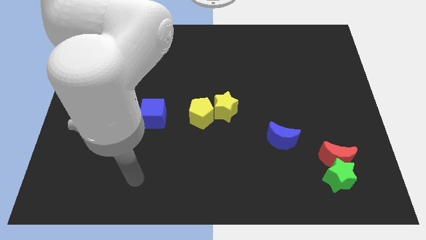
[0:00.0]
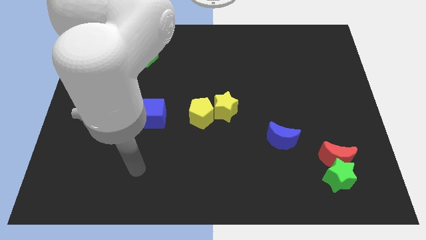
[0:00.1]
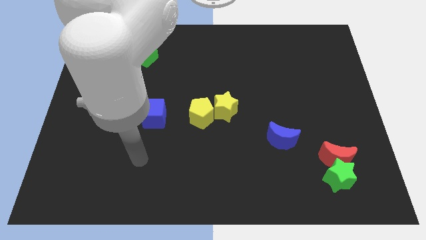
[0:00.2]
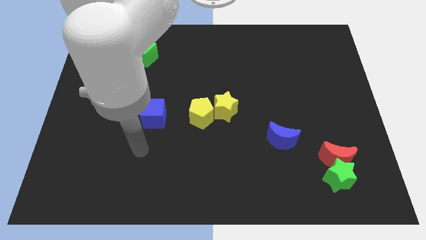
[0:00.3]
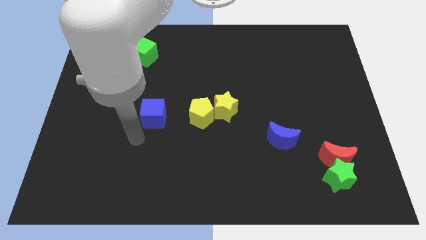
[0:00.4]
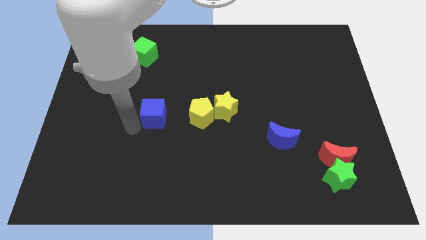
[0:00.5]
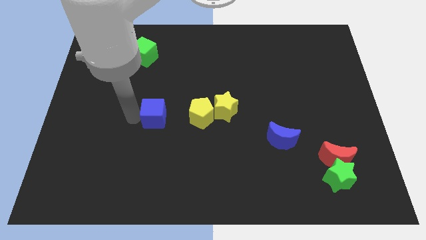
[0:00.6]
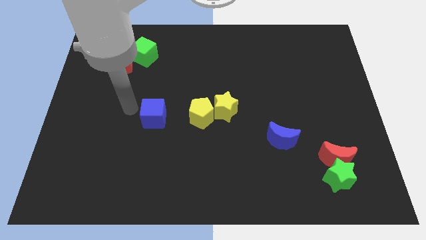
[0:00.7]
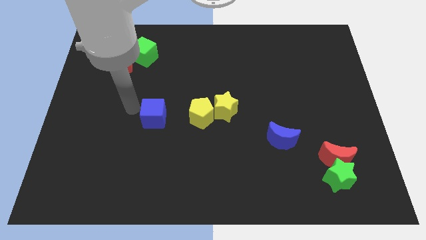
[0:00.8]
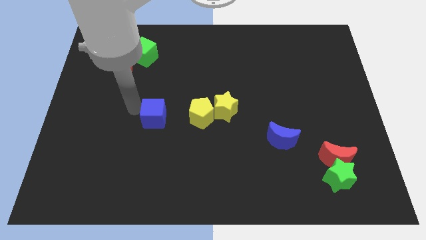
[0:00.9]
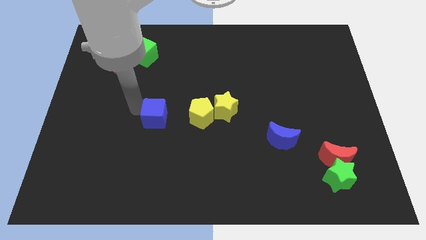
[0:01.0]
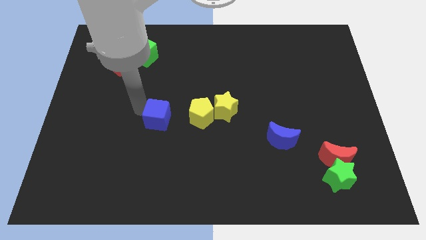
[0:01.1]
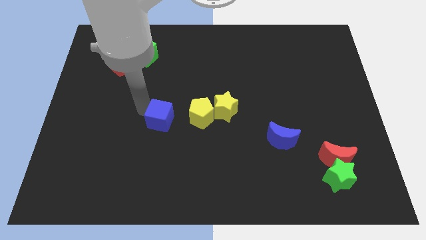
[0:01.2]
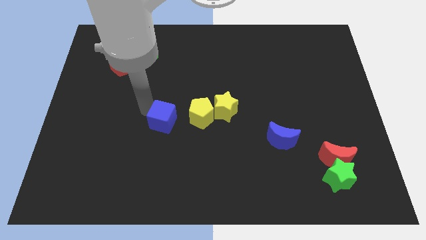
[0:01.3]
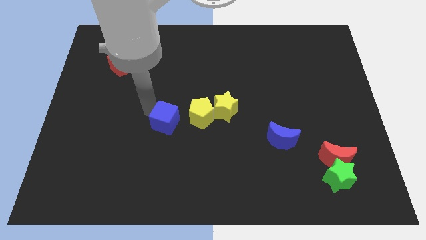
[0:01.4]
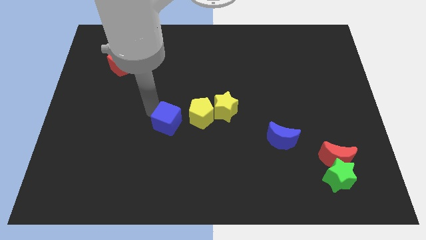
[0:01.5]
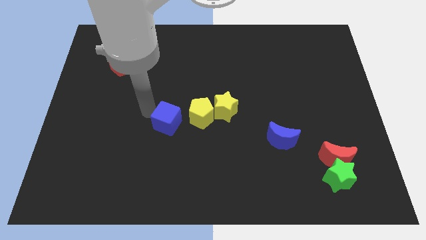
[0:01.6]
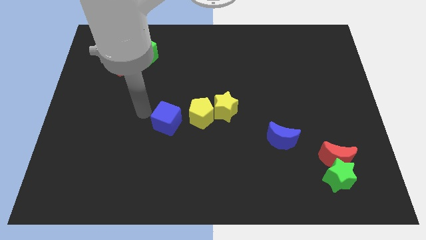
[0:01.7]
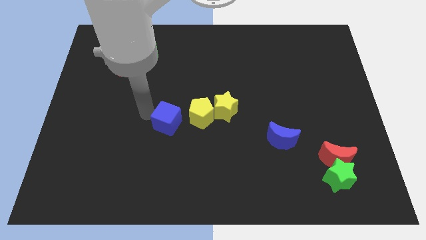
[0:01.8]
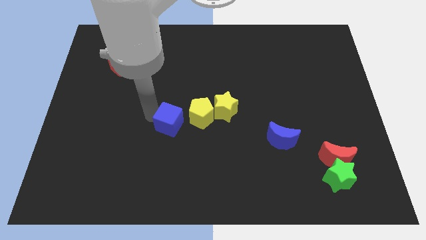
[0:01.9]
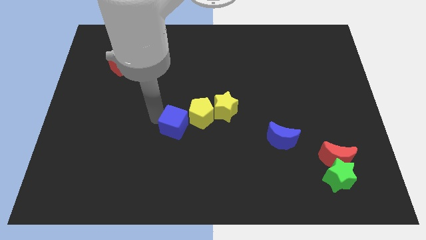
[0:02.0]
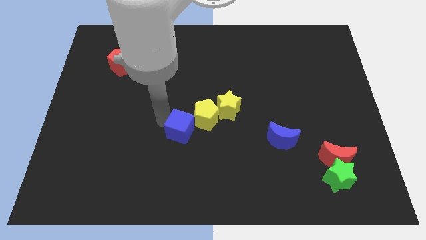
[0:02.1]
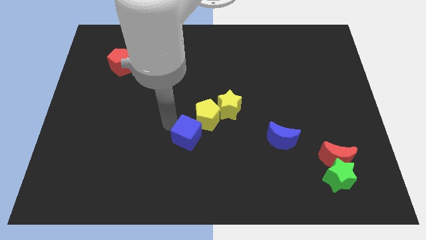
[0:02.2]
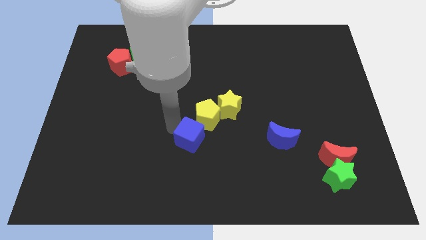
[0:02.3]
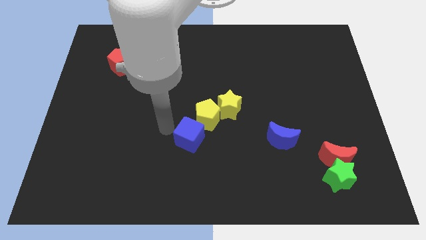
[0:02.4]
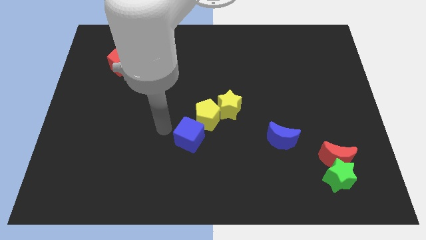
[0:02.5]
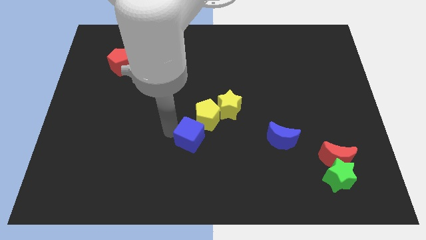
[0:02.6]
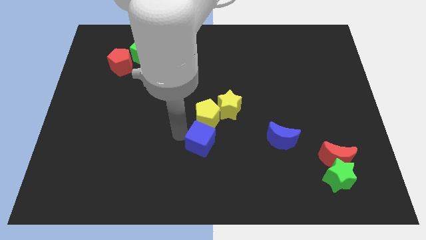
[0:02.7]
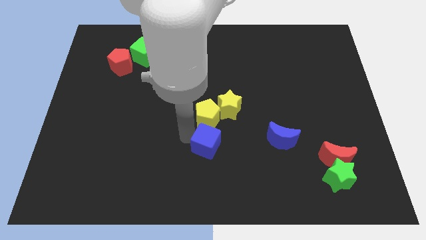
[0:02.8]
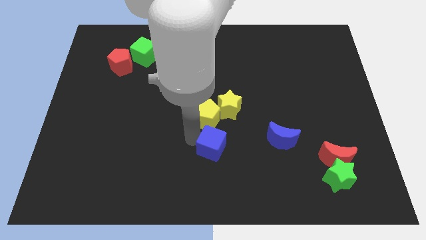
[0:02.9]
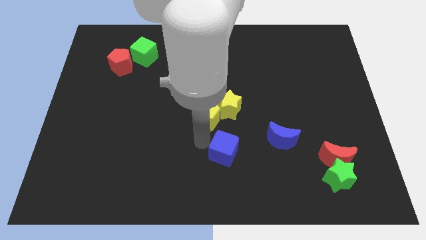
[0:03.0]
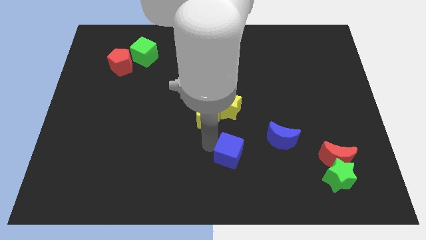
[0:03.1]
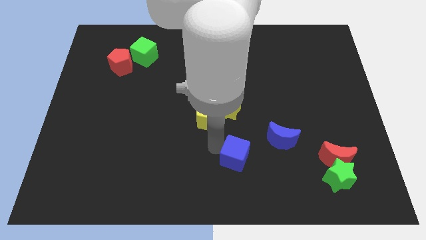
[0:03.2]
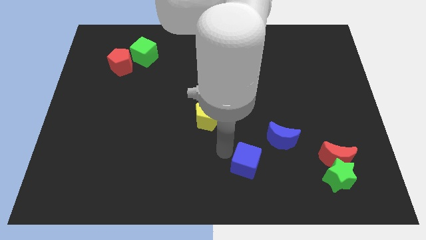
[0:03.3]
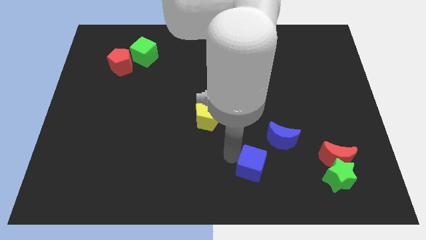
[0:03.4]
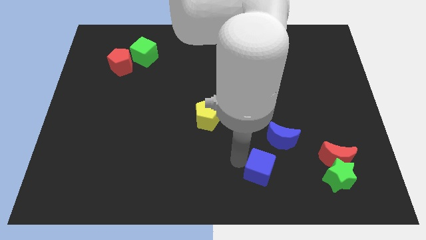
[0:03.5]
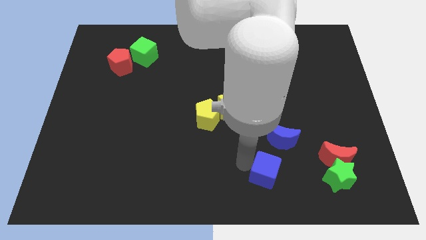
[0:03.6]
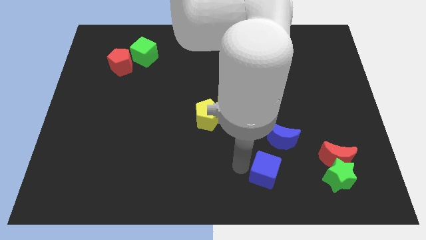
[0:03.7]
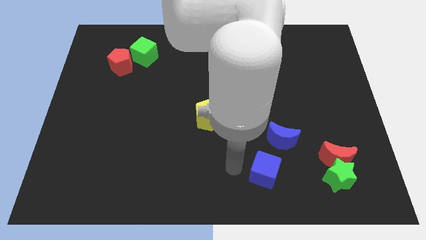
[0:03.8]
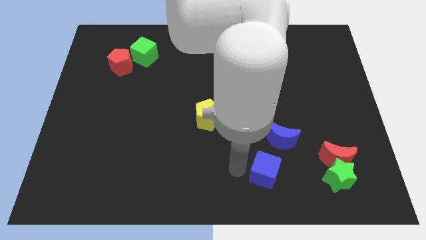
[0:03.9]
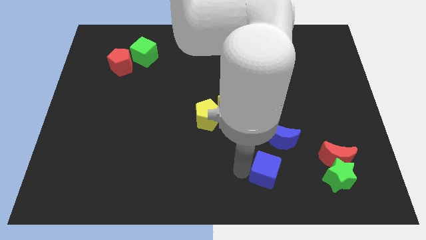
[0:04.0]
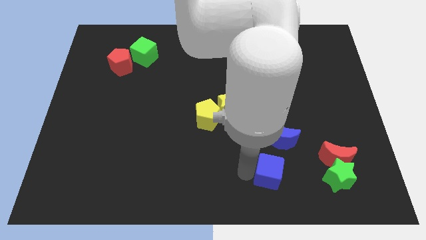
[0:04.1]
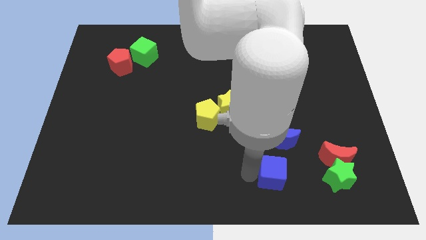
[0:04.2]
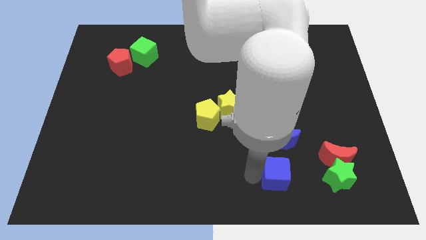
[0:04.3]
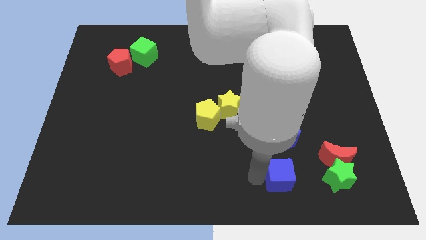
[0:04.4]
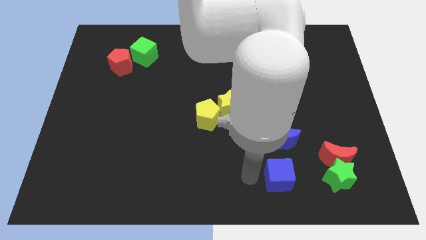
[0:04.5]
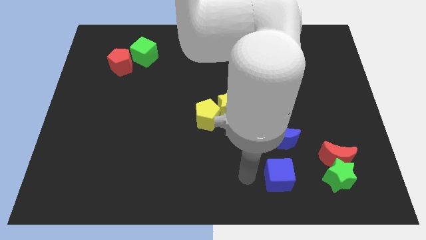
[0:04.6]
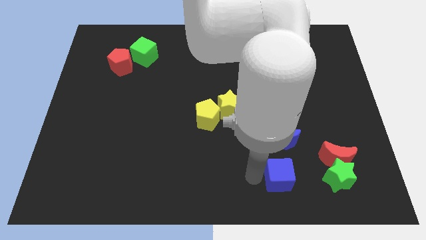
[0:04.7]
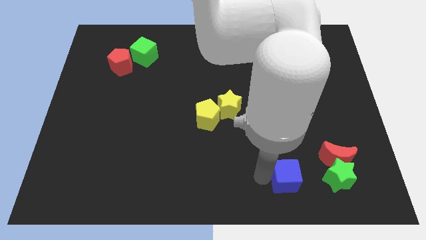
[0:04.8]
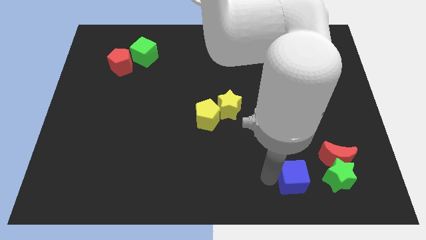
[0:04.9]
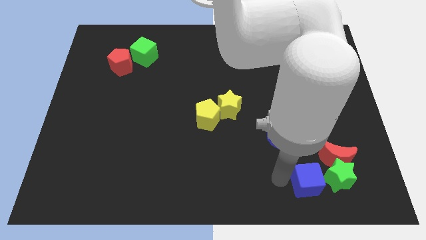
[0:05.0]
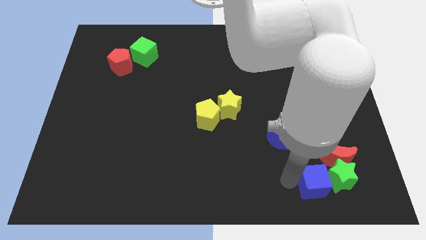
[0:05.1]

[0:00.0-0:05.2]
push the blue cube close to the green star

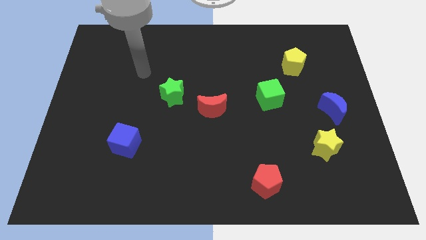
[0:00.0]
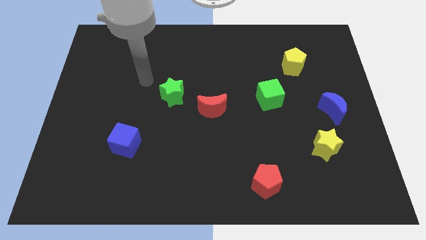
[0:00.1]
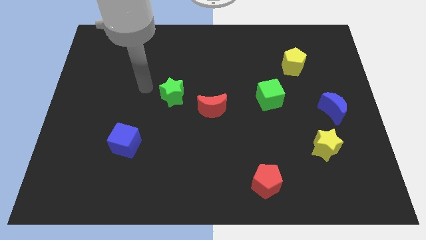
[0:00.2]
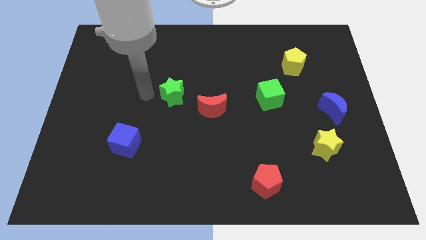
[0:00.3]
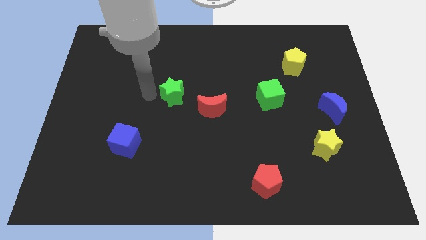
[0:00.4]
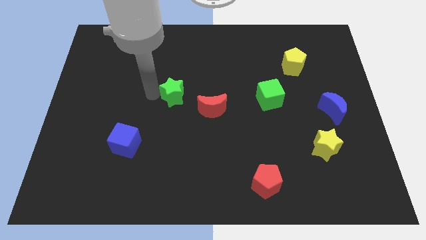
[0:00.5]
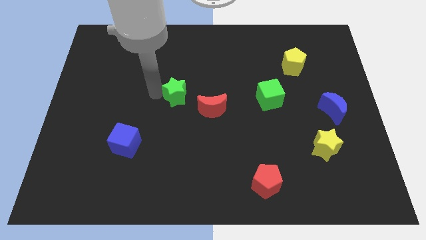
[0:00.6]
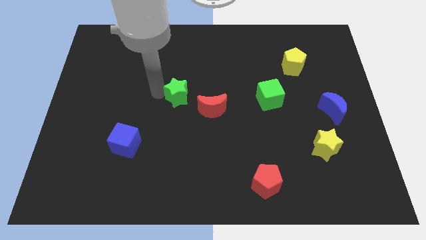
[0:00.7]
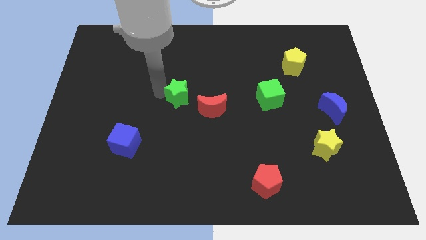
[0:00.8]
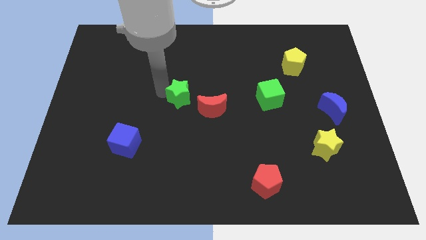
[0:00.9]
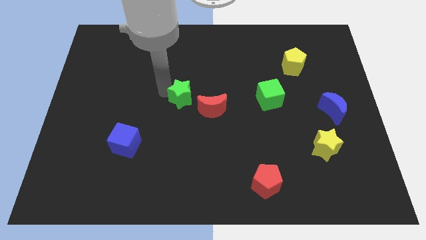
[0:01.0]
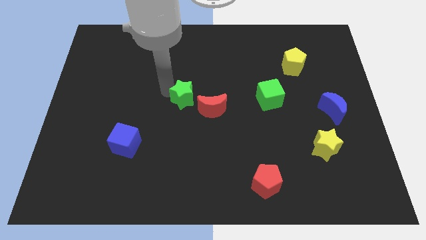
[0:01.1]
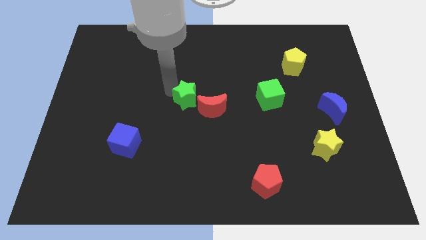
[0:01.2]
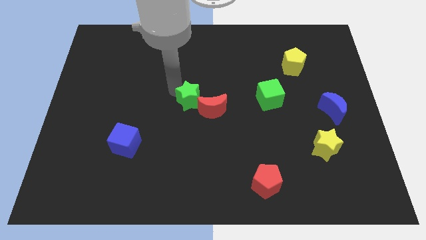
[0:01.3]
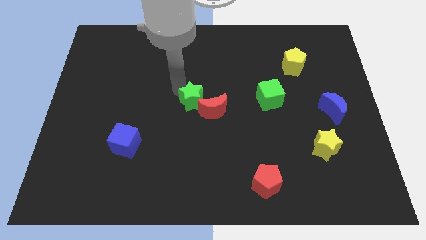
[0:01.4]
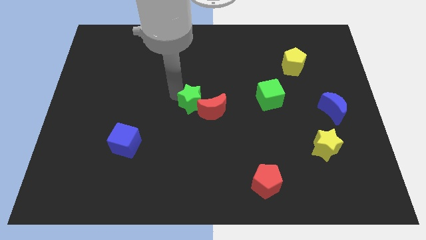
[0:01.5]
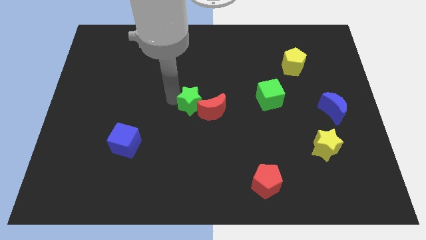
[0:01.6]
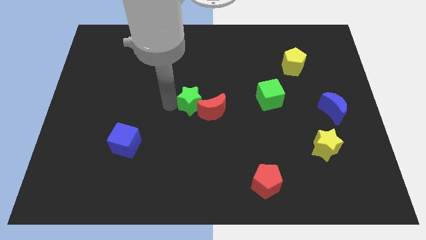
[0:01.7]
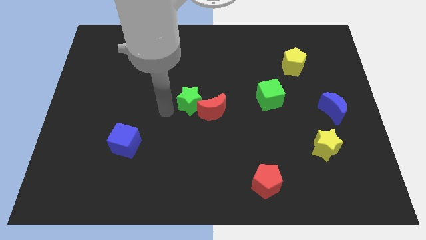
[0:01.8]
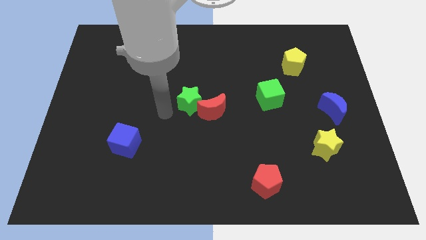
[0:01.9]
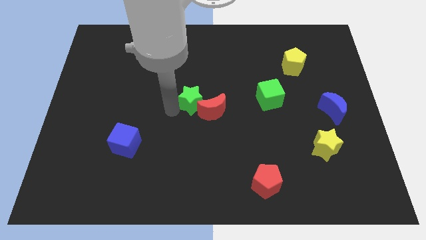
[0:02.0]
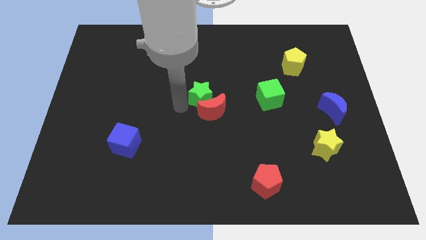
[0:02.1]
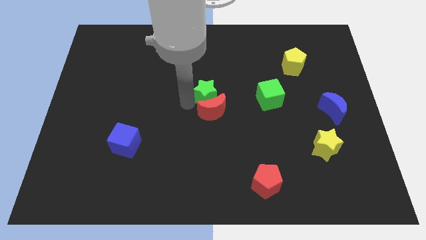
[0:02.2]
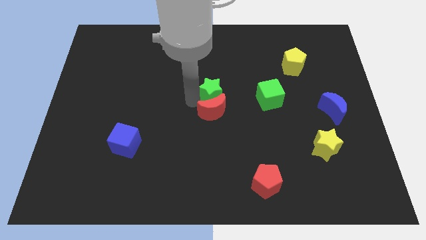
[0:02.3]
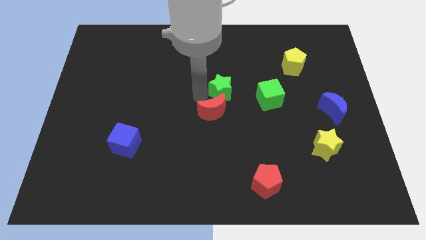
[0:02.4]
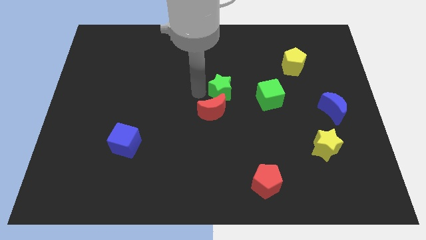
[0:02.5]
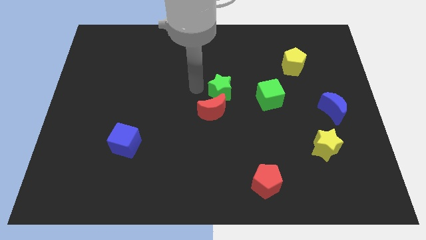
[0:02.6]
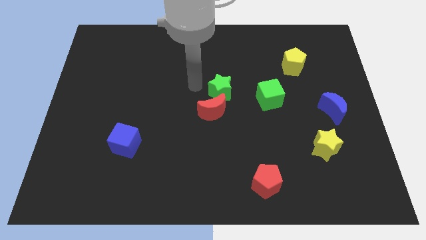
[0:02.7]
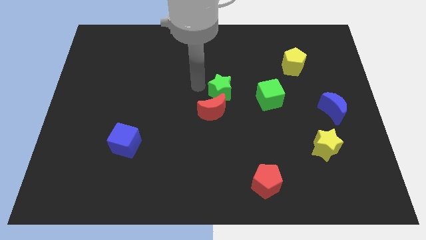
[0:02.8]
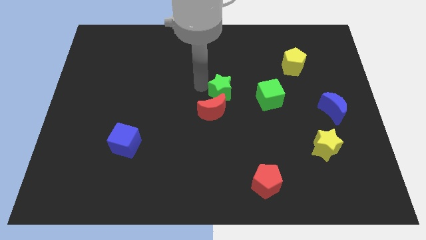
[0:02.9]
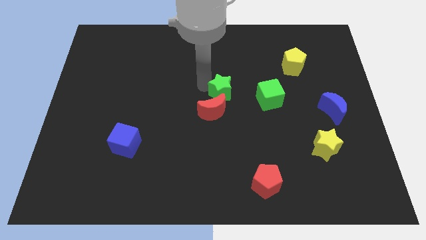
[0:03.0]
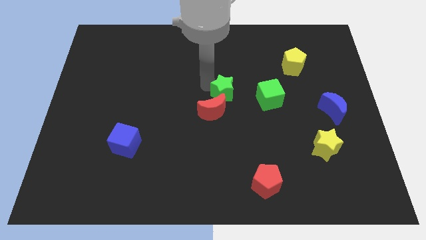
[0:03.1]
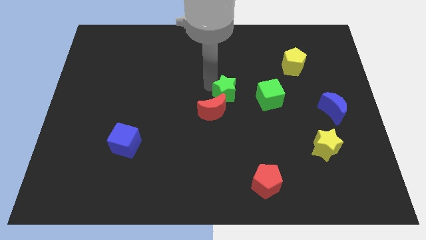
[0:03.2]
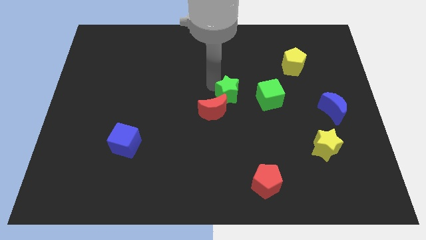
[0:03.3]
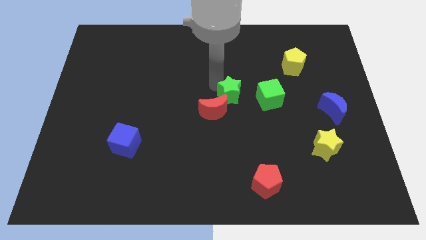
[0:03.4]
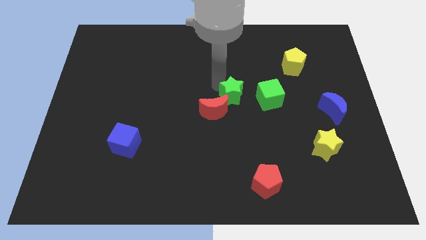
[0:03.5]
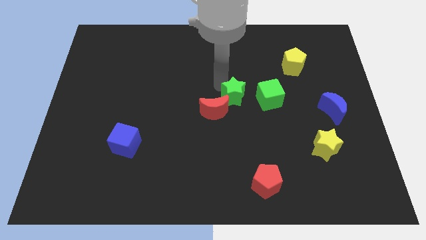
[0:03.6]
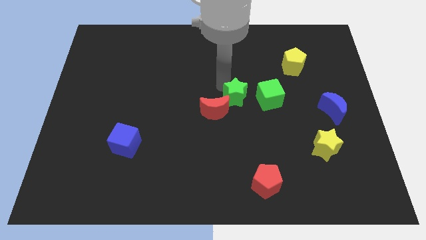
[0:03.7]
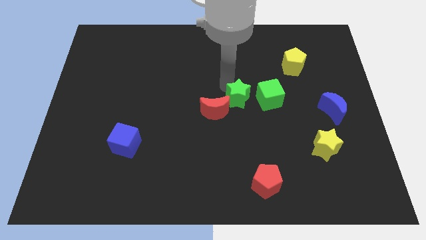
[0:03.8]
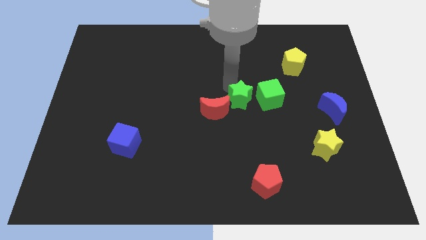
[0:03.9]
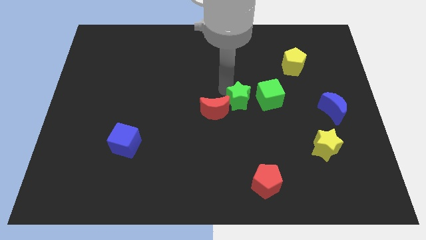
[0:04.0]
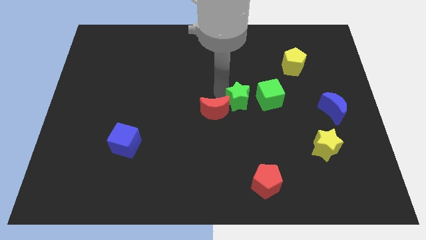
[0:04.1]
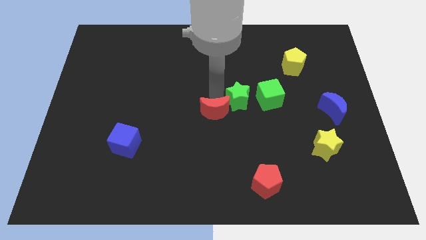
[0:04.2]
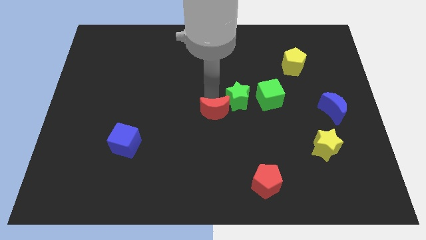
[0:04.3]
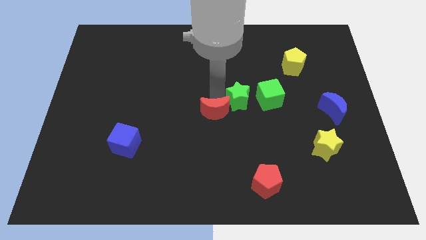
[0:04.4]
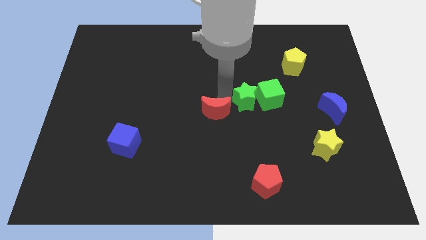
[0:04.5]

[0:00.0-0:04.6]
put the green star towards the green cube
